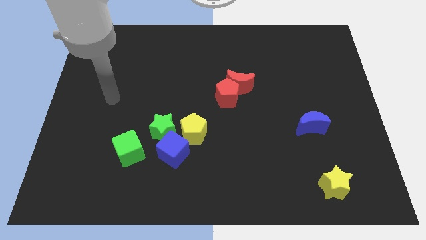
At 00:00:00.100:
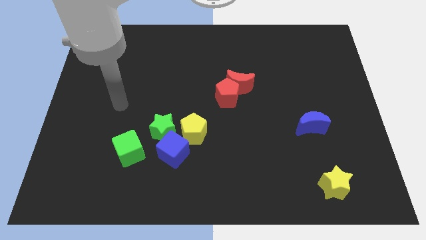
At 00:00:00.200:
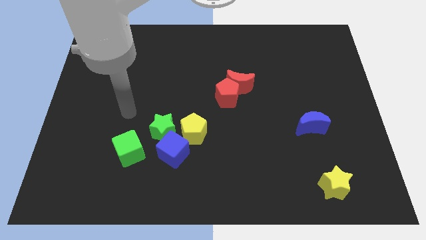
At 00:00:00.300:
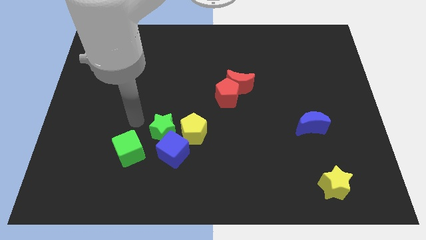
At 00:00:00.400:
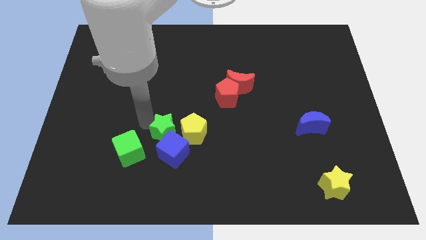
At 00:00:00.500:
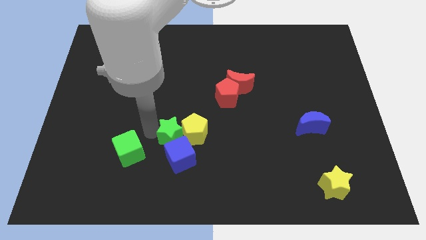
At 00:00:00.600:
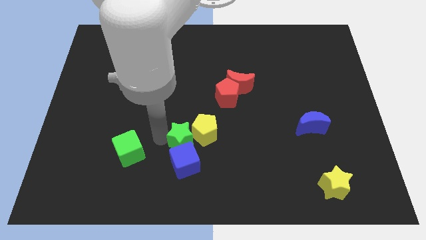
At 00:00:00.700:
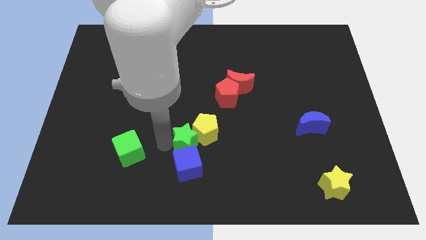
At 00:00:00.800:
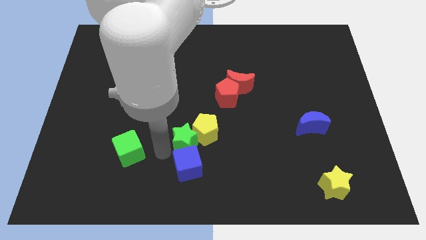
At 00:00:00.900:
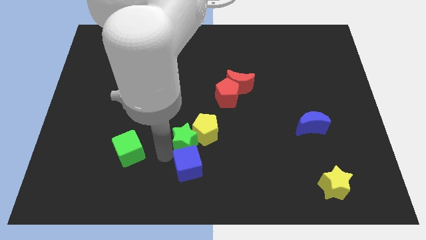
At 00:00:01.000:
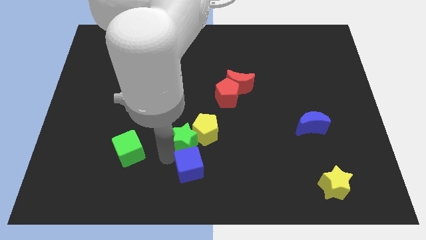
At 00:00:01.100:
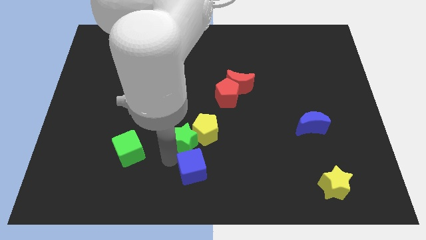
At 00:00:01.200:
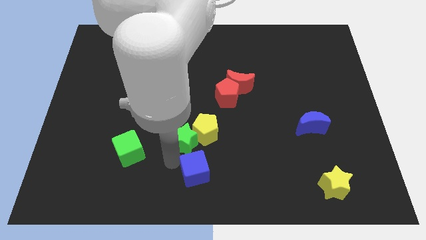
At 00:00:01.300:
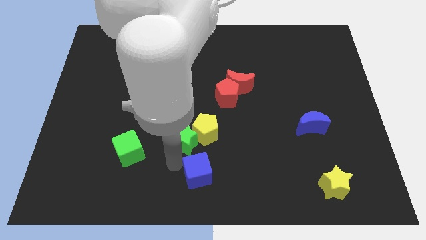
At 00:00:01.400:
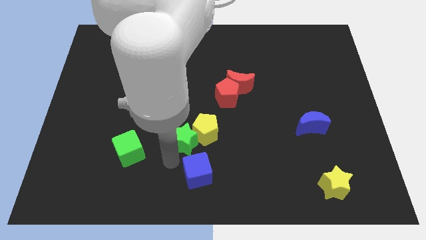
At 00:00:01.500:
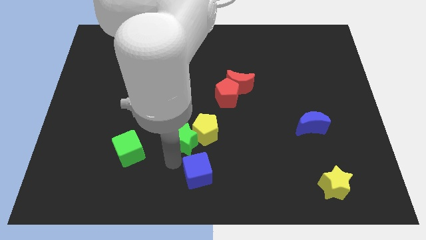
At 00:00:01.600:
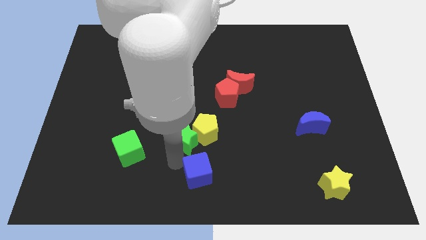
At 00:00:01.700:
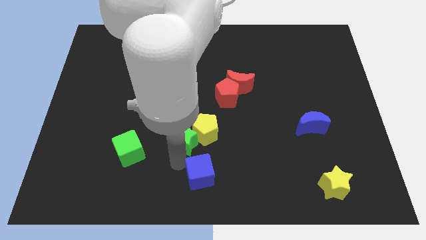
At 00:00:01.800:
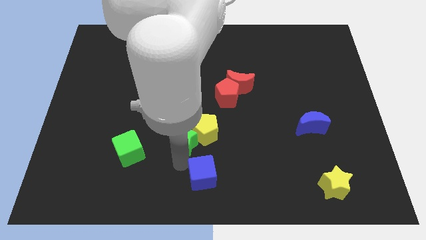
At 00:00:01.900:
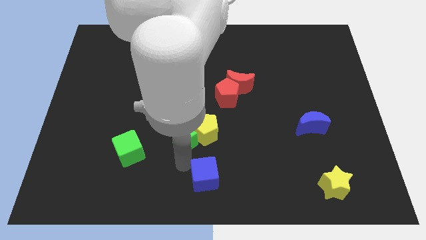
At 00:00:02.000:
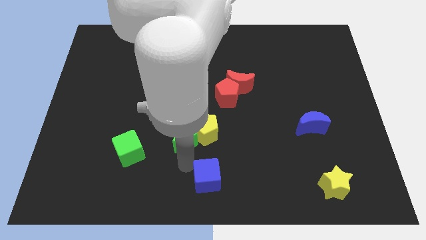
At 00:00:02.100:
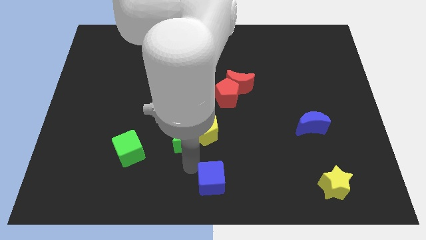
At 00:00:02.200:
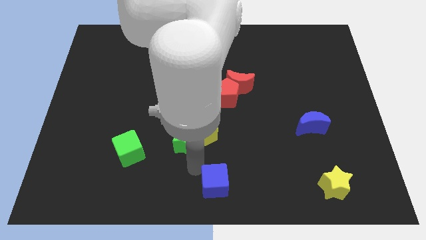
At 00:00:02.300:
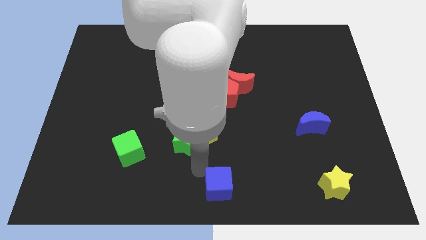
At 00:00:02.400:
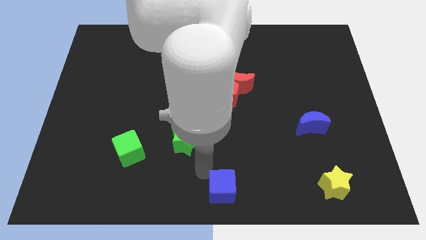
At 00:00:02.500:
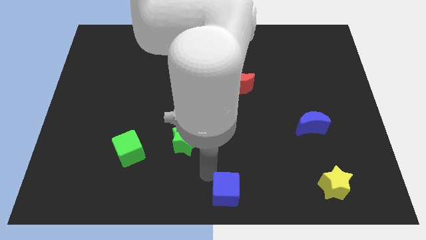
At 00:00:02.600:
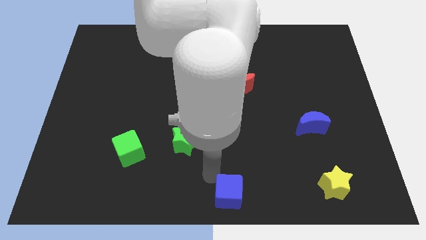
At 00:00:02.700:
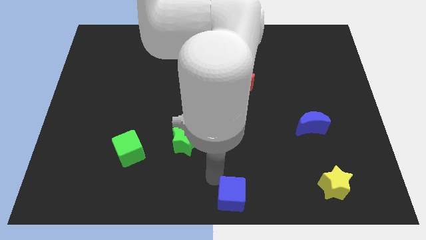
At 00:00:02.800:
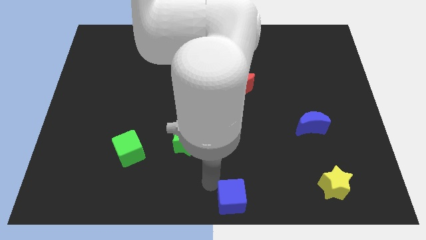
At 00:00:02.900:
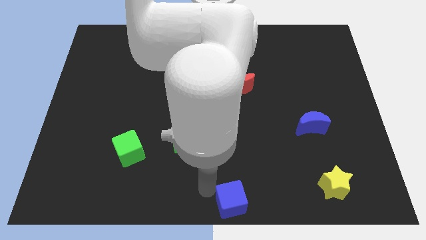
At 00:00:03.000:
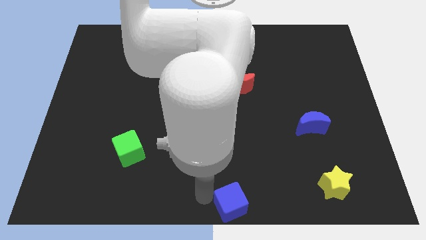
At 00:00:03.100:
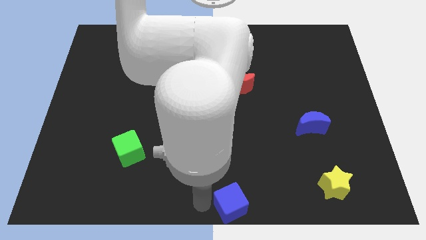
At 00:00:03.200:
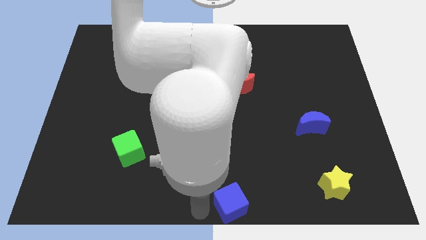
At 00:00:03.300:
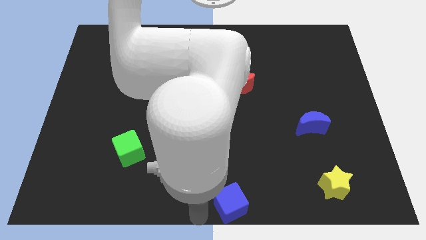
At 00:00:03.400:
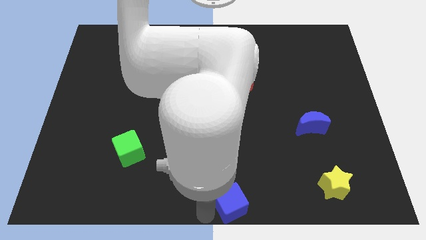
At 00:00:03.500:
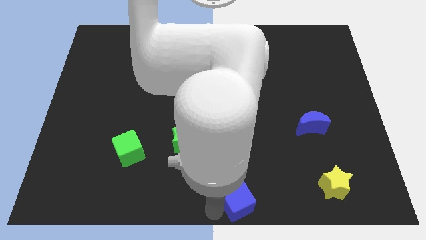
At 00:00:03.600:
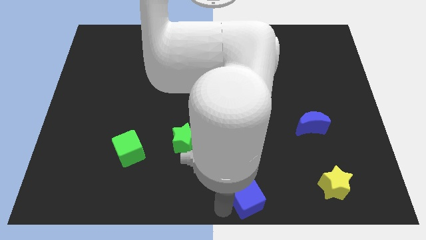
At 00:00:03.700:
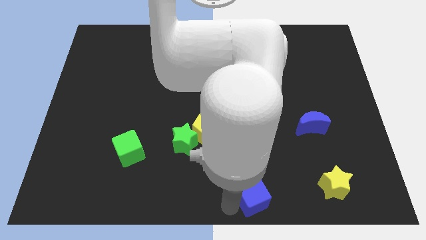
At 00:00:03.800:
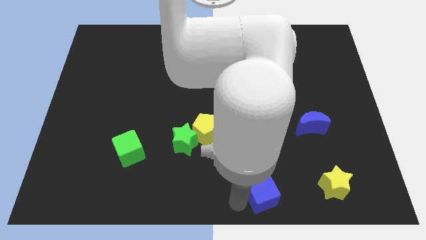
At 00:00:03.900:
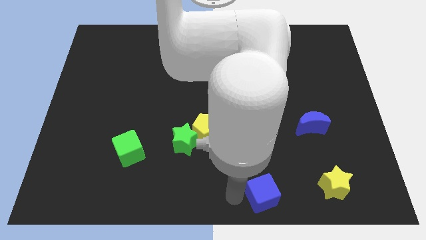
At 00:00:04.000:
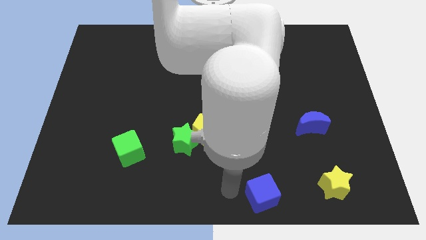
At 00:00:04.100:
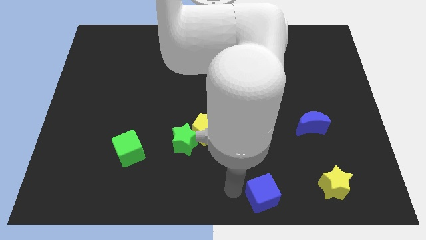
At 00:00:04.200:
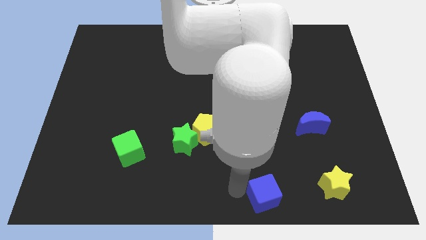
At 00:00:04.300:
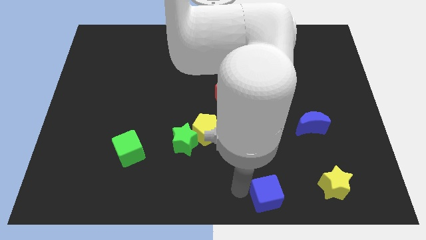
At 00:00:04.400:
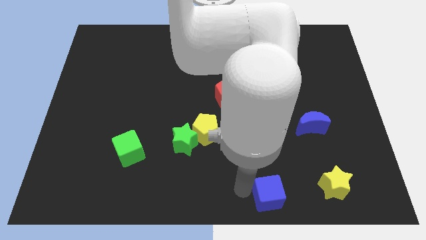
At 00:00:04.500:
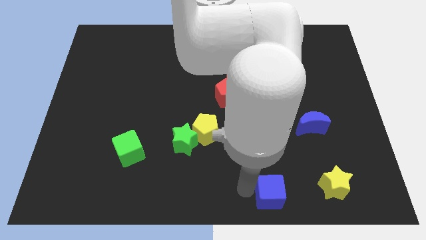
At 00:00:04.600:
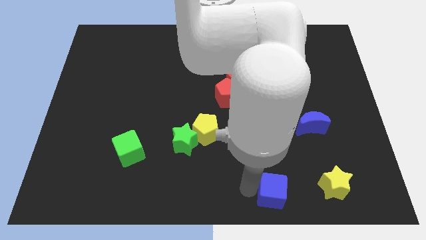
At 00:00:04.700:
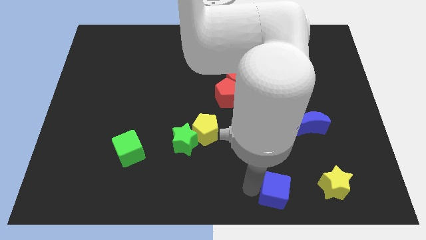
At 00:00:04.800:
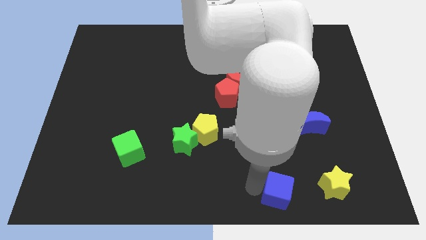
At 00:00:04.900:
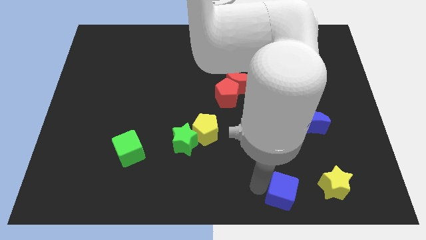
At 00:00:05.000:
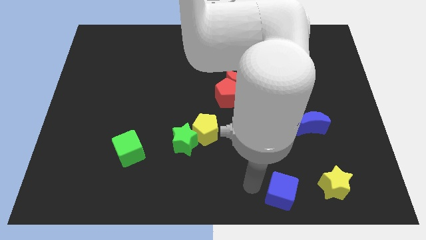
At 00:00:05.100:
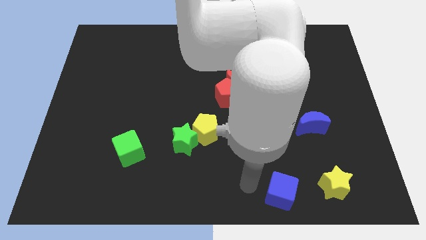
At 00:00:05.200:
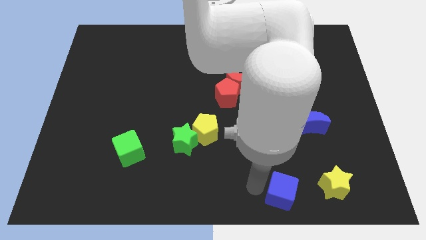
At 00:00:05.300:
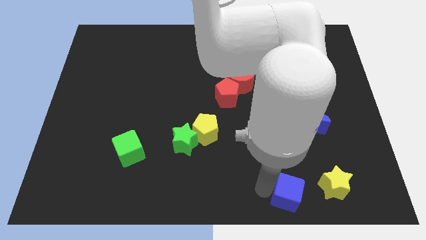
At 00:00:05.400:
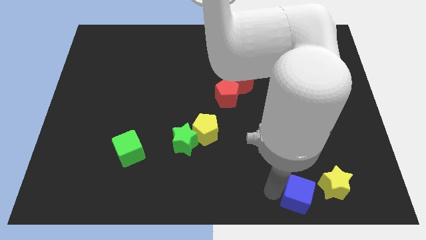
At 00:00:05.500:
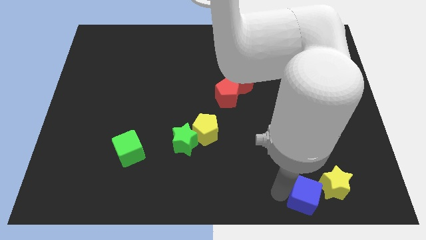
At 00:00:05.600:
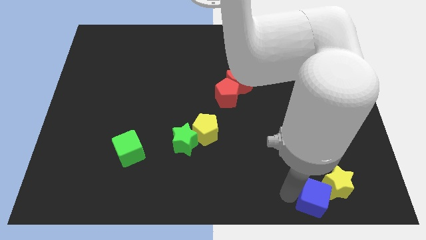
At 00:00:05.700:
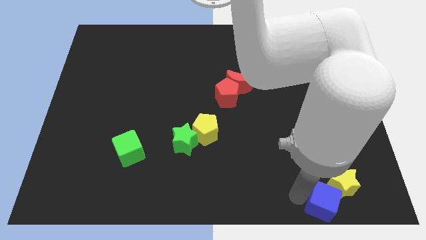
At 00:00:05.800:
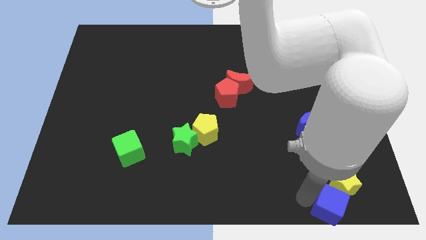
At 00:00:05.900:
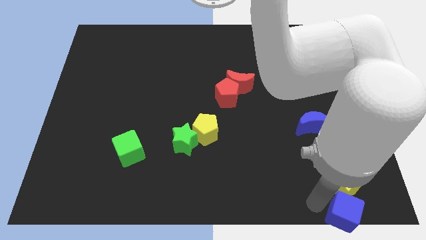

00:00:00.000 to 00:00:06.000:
move the blue cube to the bottom right of the board
